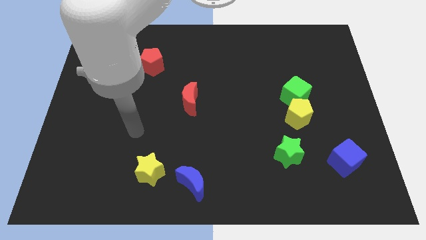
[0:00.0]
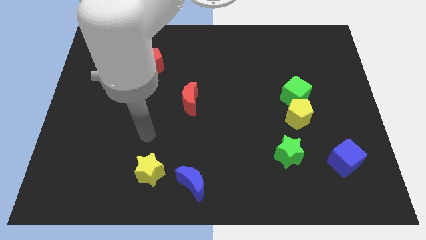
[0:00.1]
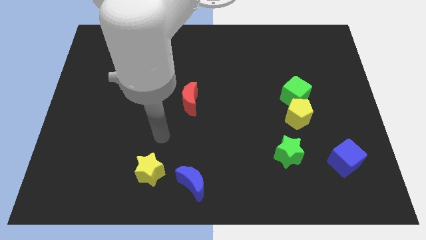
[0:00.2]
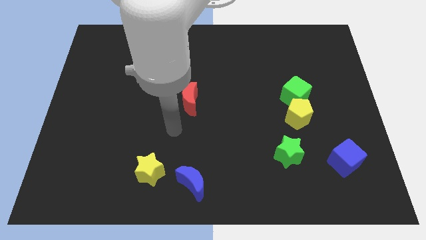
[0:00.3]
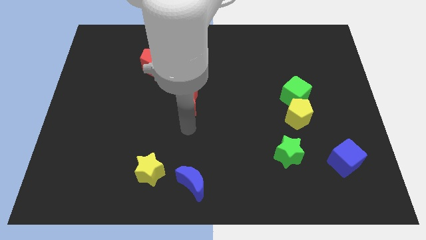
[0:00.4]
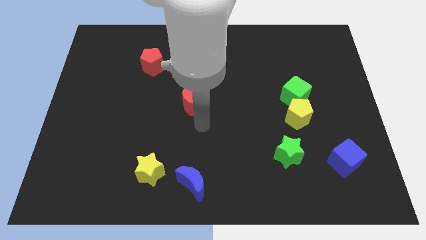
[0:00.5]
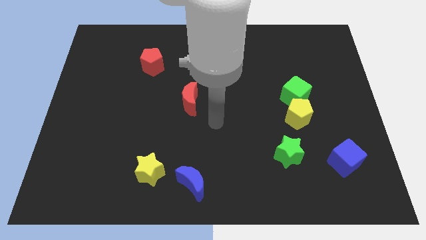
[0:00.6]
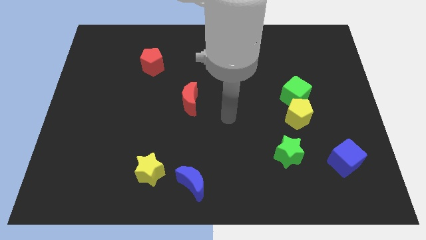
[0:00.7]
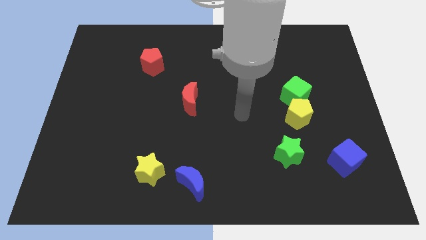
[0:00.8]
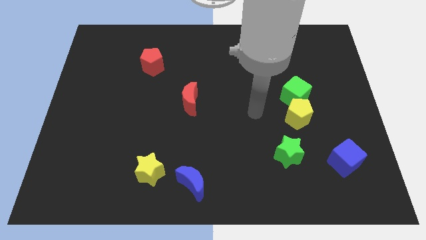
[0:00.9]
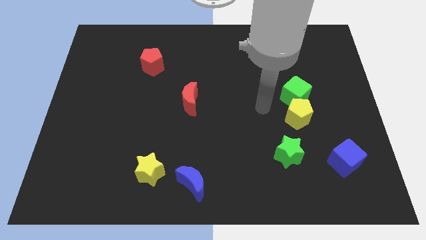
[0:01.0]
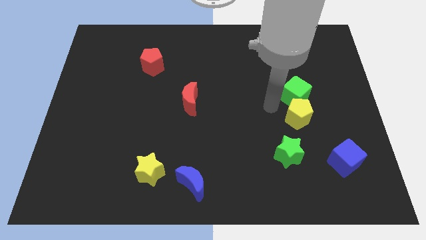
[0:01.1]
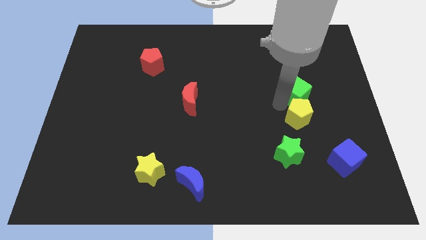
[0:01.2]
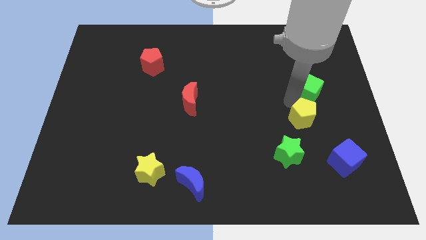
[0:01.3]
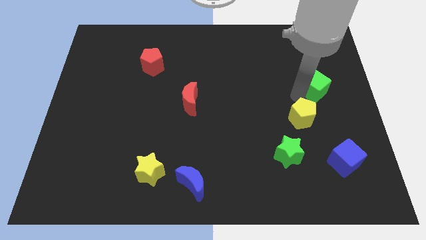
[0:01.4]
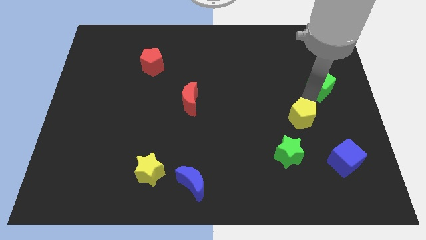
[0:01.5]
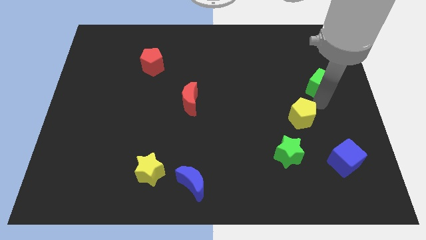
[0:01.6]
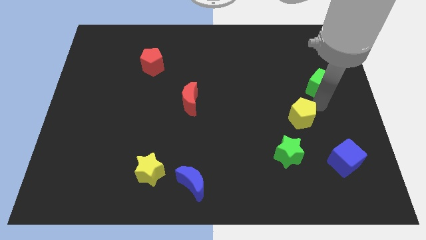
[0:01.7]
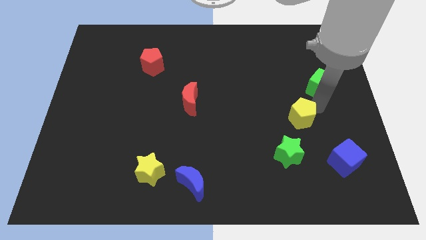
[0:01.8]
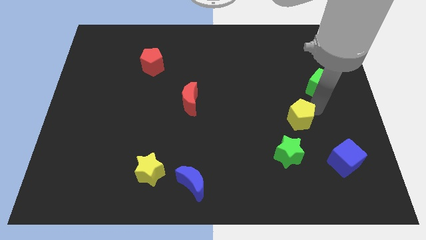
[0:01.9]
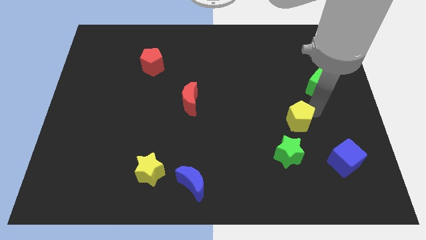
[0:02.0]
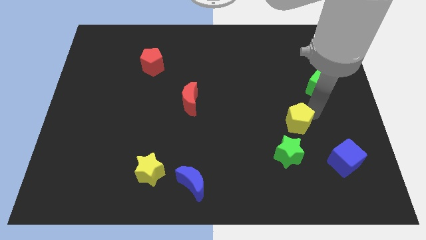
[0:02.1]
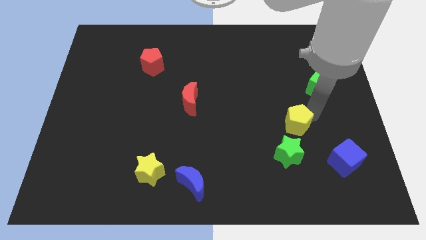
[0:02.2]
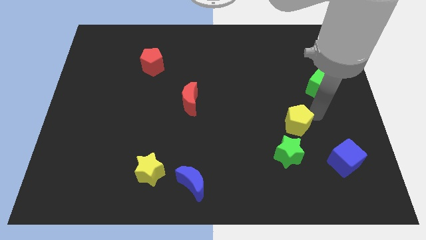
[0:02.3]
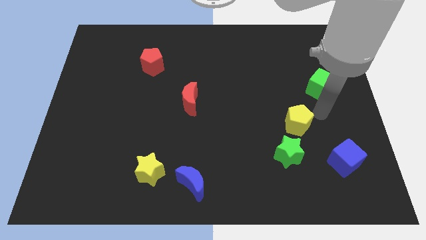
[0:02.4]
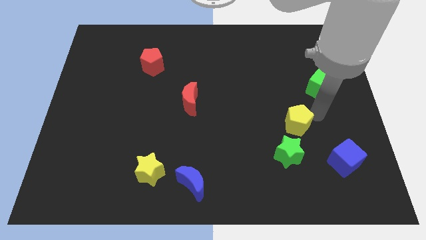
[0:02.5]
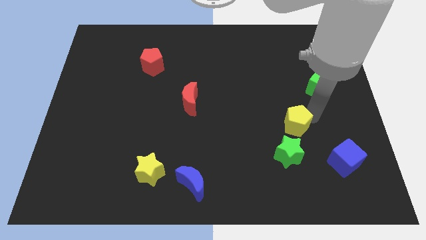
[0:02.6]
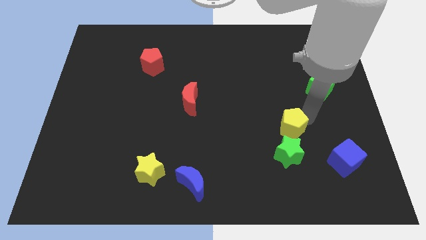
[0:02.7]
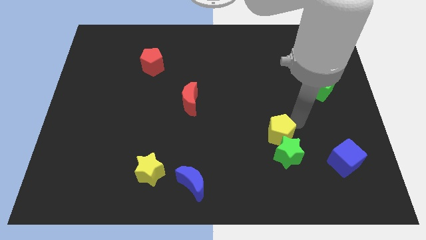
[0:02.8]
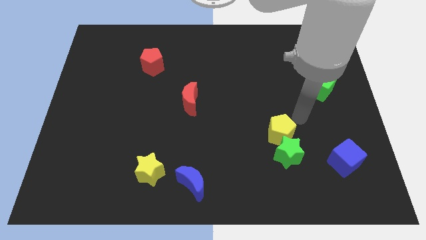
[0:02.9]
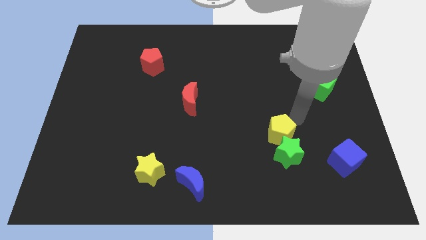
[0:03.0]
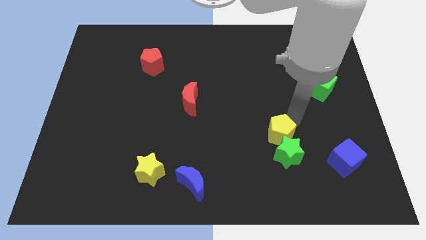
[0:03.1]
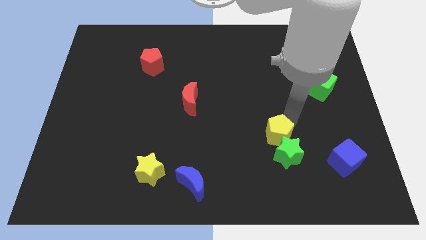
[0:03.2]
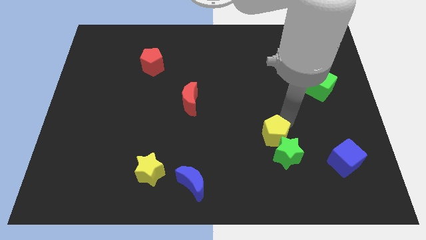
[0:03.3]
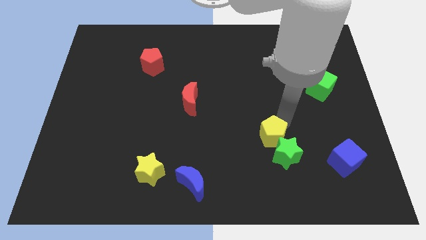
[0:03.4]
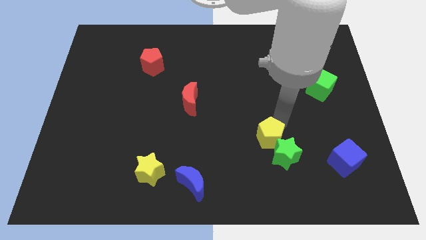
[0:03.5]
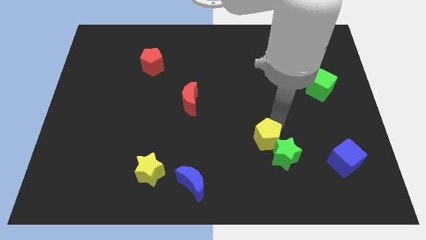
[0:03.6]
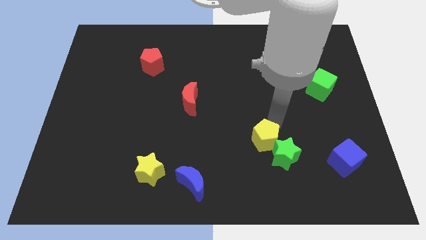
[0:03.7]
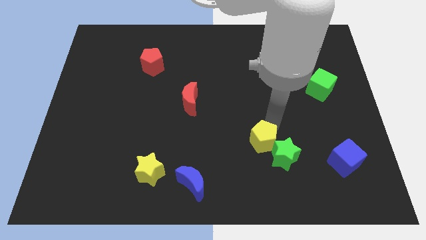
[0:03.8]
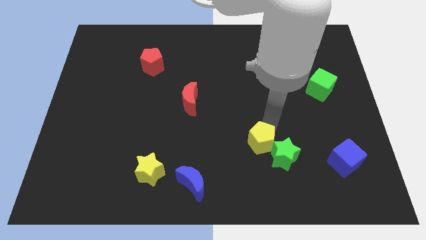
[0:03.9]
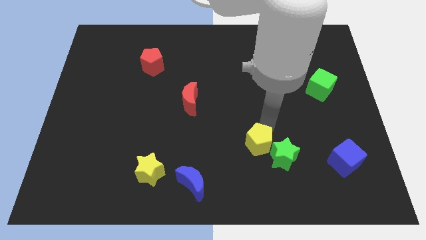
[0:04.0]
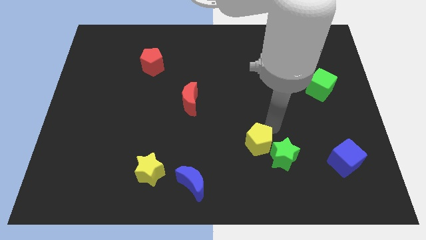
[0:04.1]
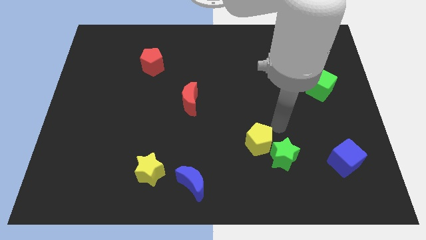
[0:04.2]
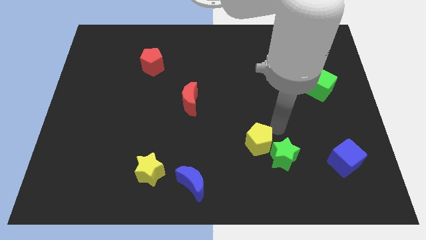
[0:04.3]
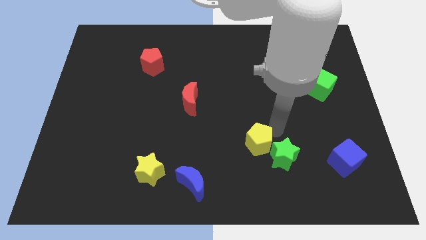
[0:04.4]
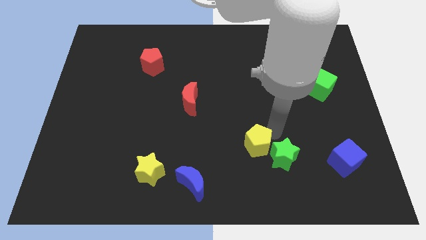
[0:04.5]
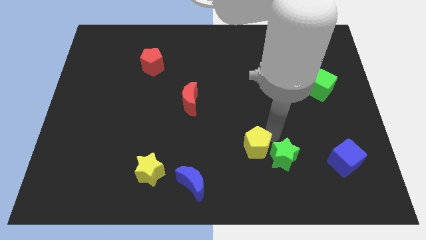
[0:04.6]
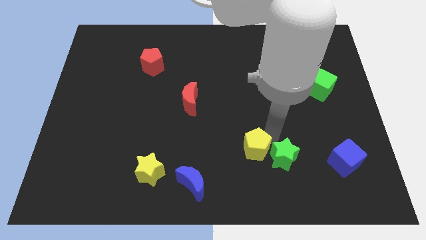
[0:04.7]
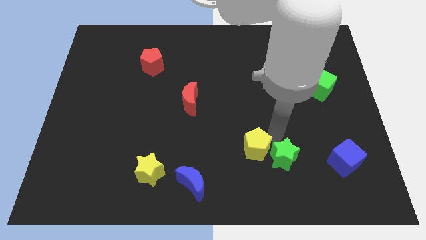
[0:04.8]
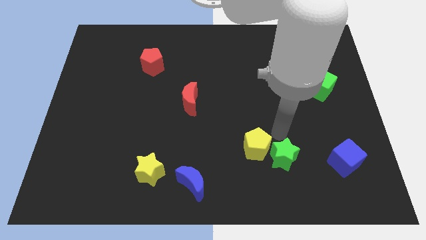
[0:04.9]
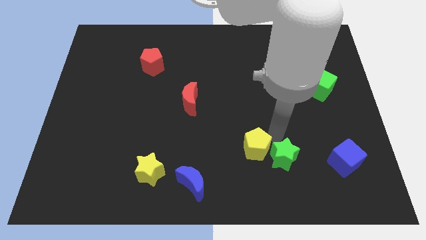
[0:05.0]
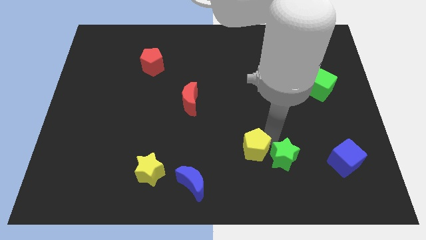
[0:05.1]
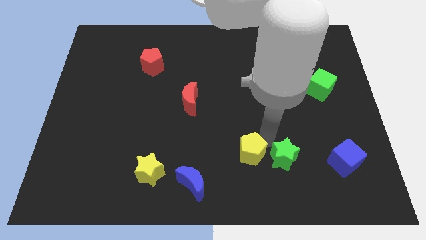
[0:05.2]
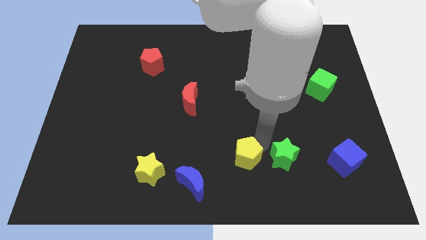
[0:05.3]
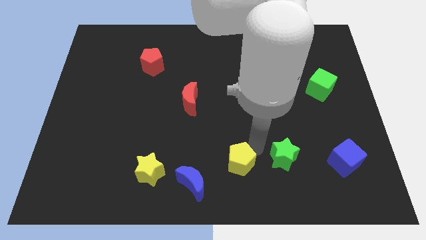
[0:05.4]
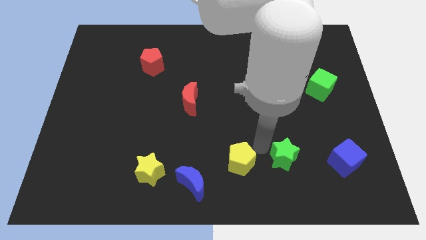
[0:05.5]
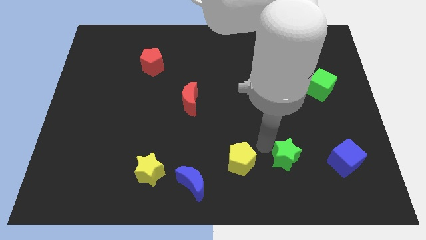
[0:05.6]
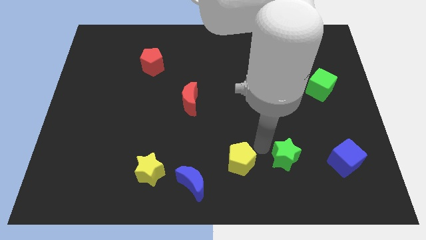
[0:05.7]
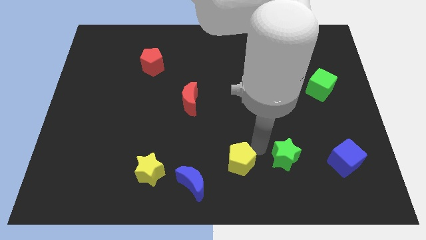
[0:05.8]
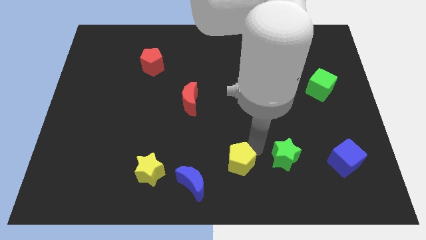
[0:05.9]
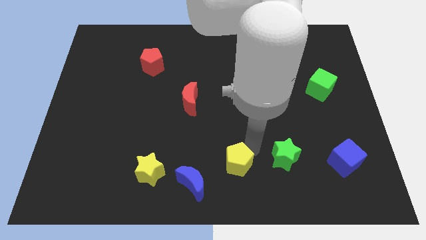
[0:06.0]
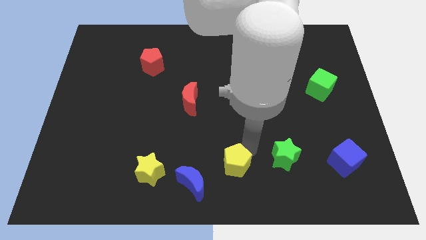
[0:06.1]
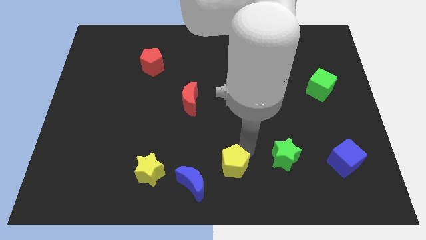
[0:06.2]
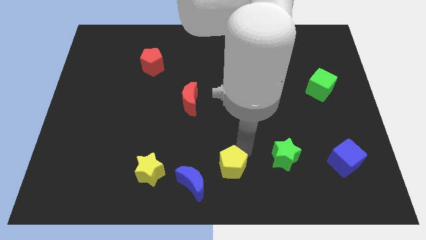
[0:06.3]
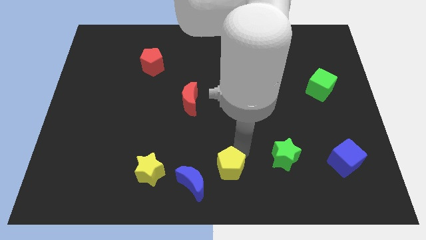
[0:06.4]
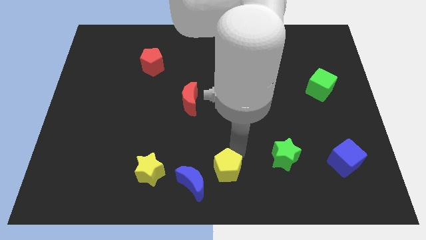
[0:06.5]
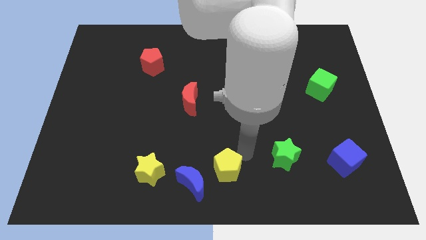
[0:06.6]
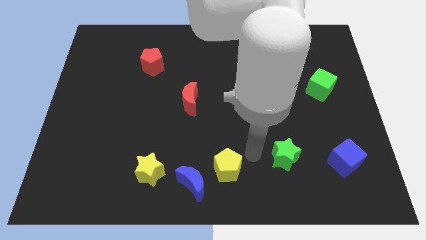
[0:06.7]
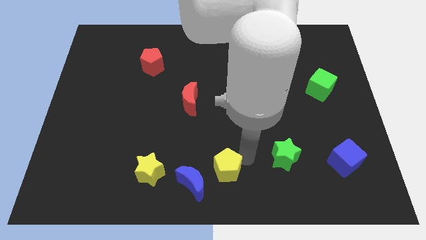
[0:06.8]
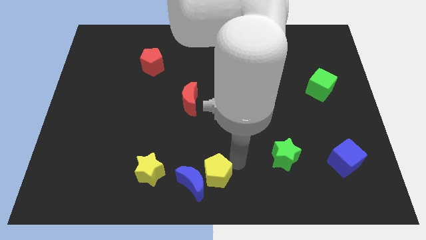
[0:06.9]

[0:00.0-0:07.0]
push the yellow pentagon close to the blue moon

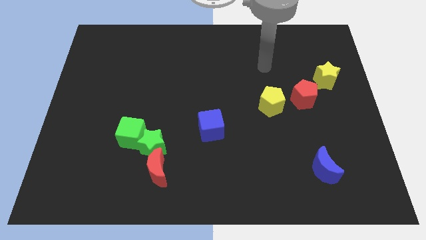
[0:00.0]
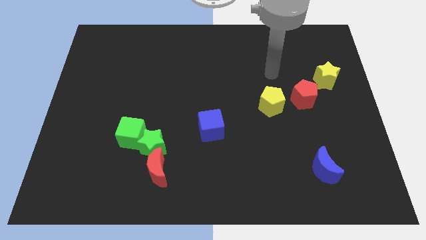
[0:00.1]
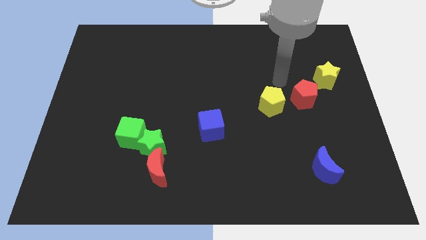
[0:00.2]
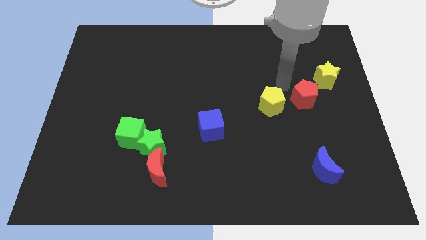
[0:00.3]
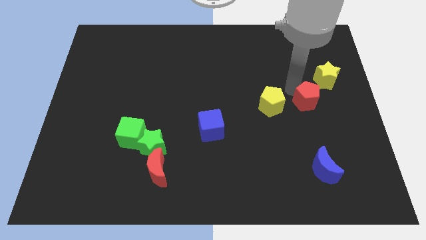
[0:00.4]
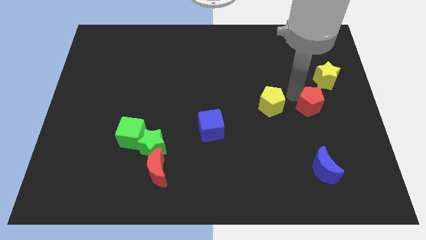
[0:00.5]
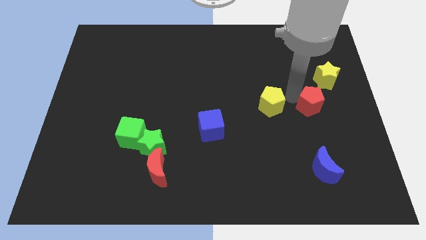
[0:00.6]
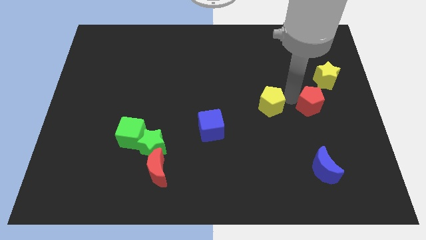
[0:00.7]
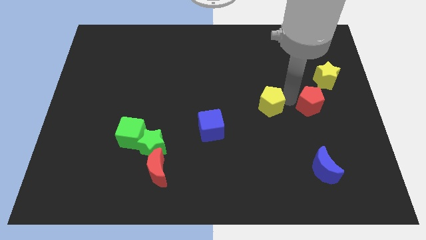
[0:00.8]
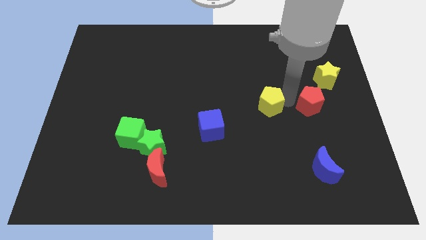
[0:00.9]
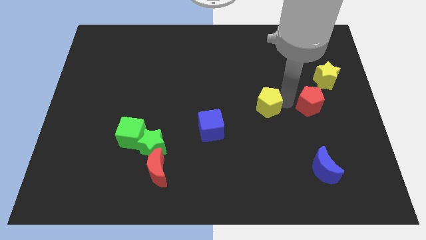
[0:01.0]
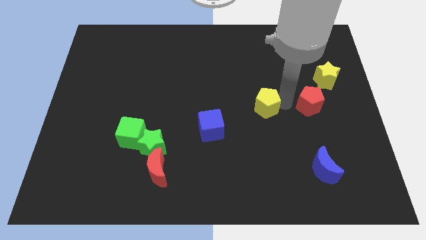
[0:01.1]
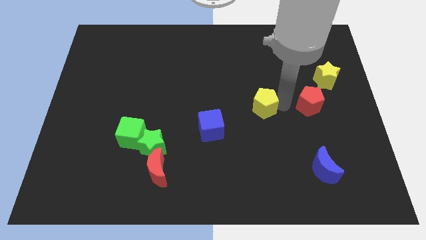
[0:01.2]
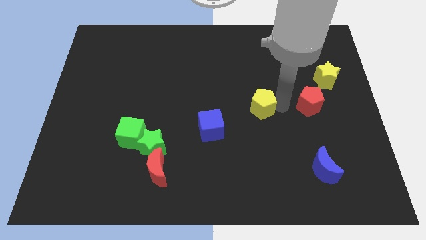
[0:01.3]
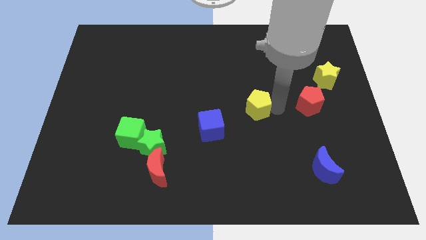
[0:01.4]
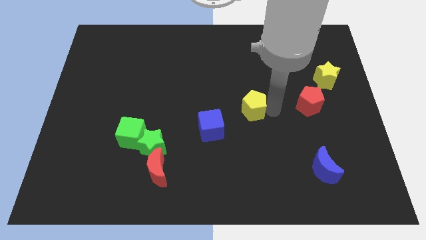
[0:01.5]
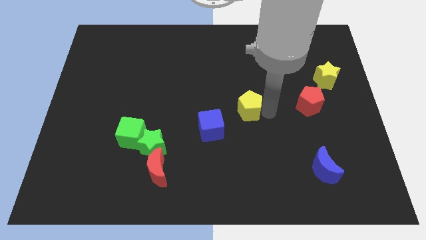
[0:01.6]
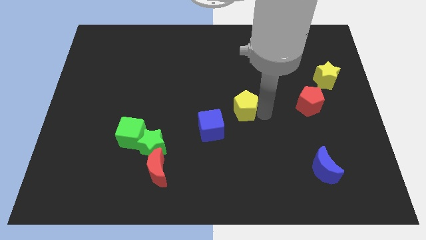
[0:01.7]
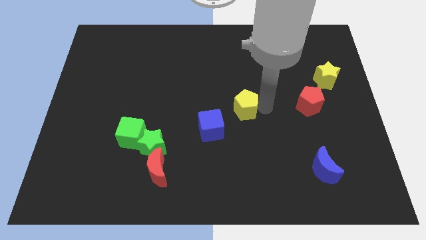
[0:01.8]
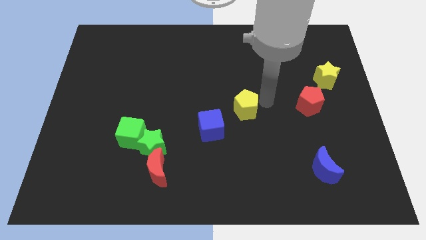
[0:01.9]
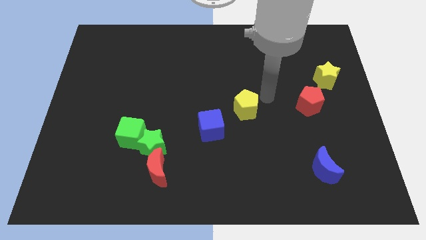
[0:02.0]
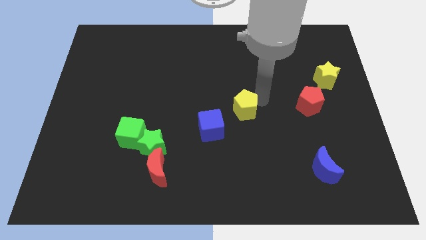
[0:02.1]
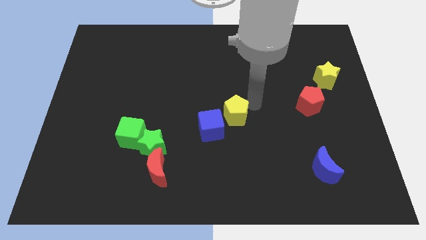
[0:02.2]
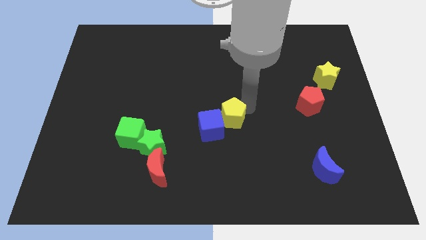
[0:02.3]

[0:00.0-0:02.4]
push the yellow pentagon to the blue cube
